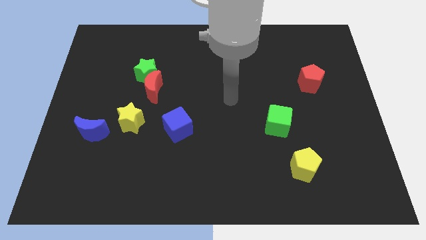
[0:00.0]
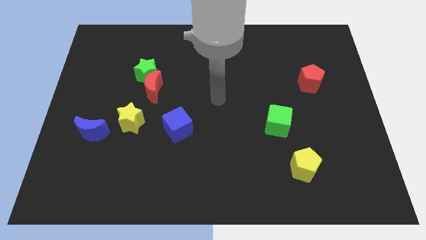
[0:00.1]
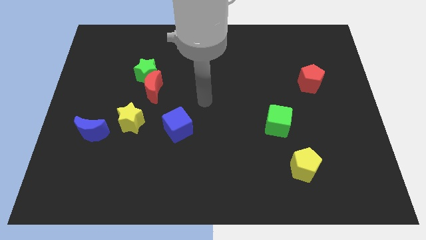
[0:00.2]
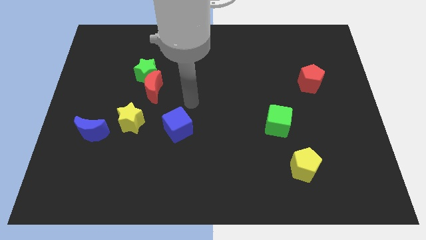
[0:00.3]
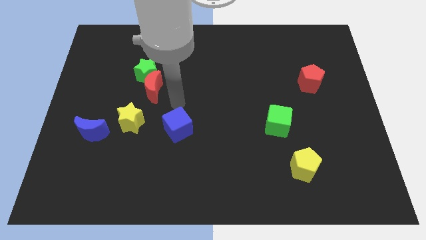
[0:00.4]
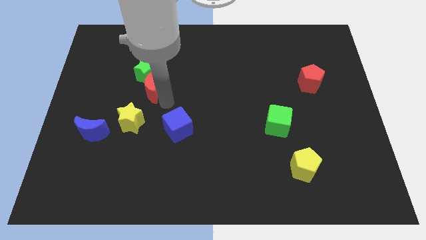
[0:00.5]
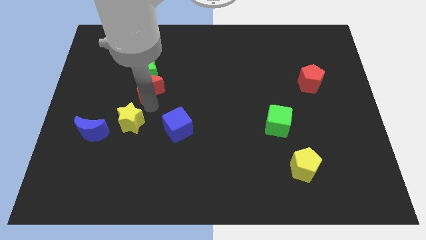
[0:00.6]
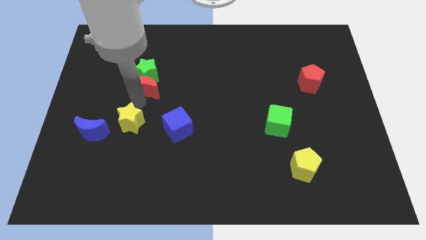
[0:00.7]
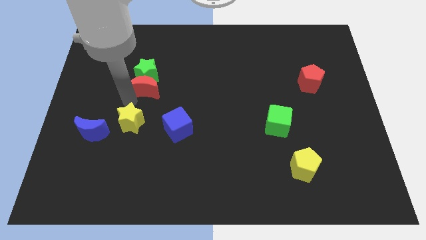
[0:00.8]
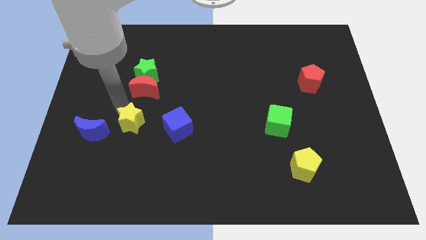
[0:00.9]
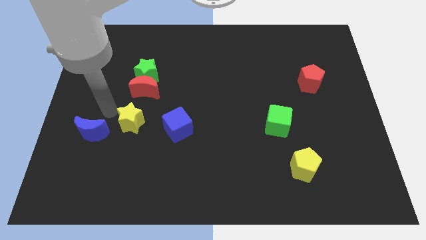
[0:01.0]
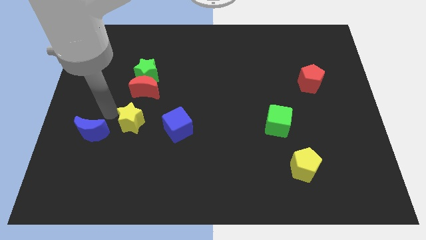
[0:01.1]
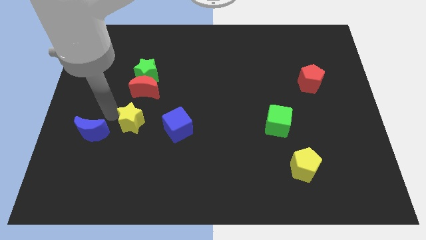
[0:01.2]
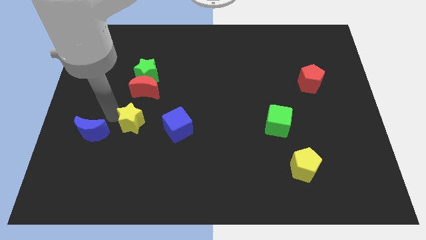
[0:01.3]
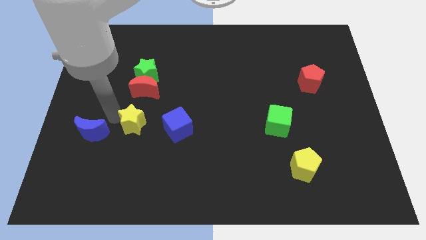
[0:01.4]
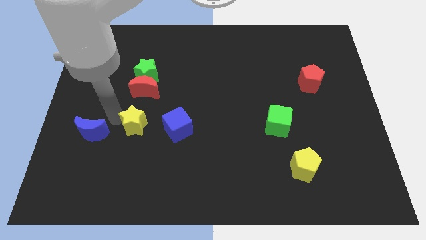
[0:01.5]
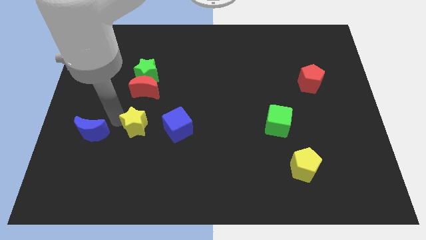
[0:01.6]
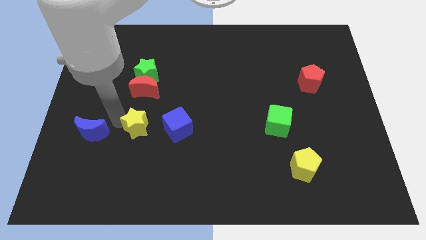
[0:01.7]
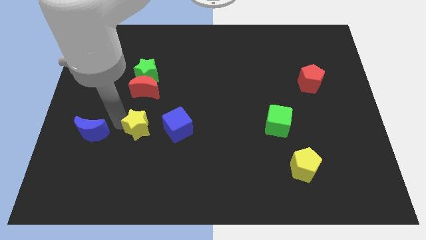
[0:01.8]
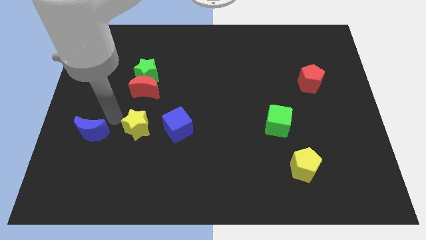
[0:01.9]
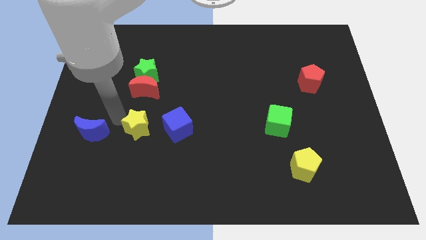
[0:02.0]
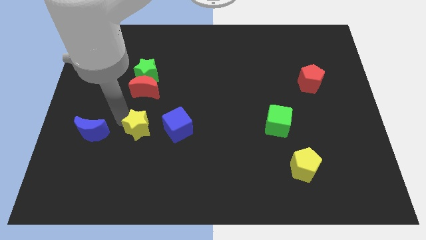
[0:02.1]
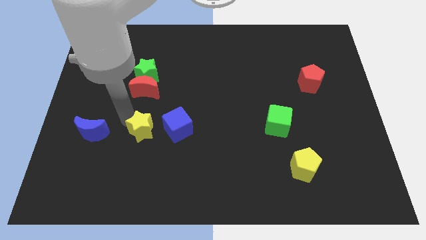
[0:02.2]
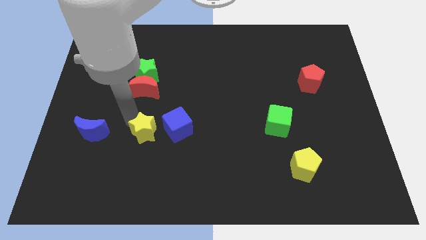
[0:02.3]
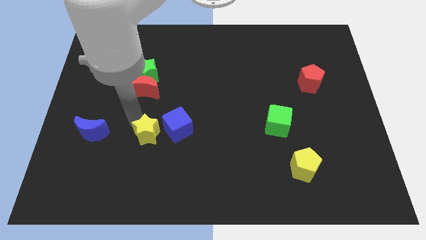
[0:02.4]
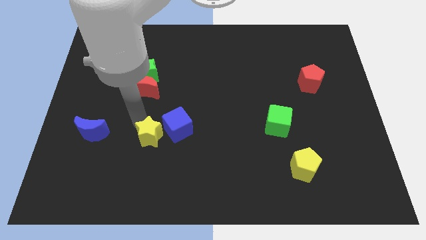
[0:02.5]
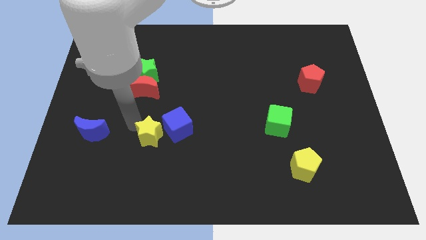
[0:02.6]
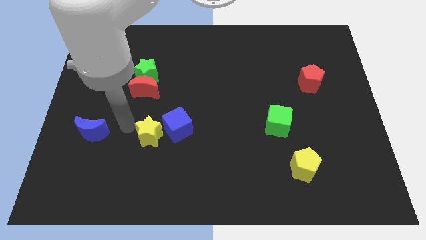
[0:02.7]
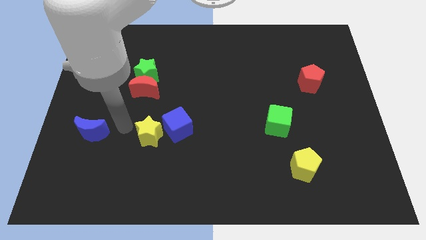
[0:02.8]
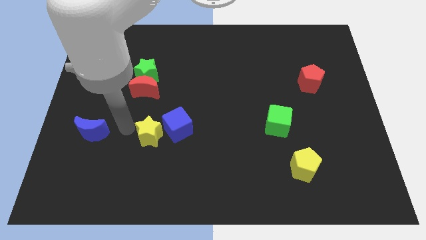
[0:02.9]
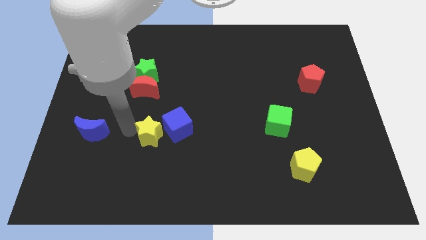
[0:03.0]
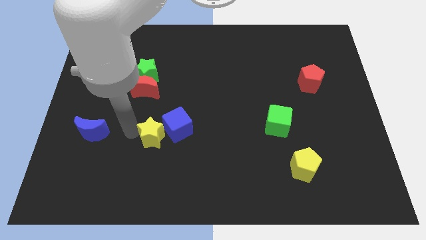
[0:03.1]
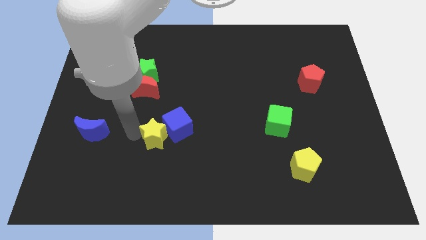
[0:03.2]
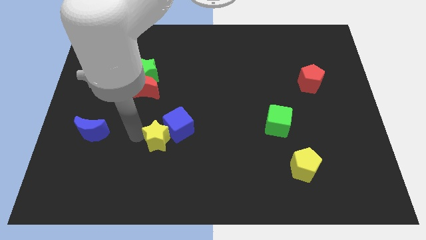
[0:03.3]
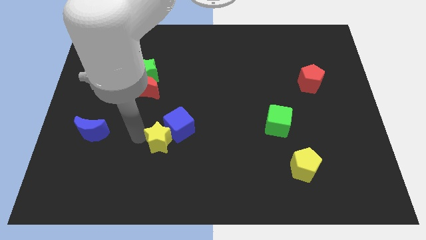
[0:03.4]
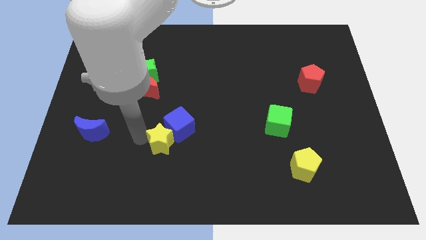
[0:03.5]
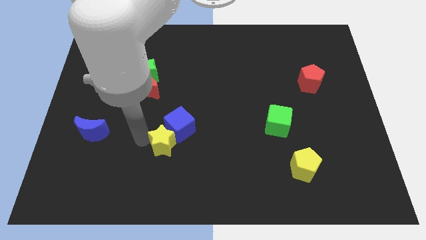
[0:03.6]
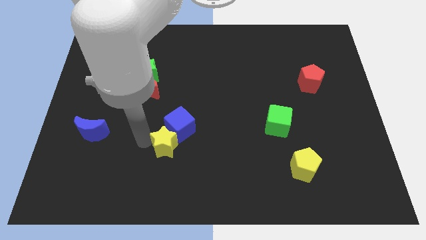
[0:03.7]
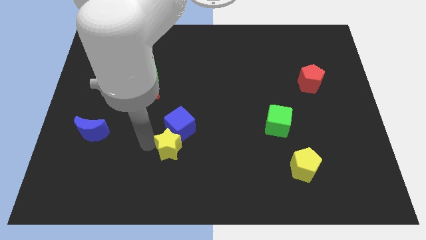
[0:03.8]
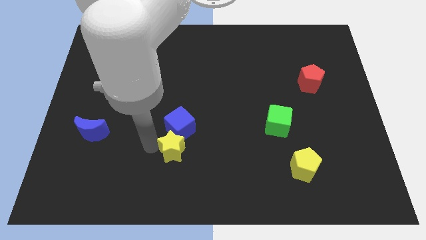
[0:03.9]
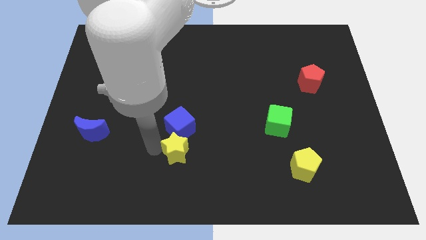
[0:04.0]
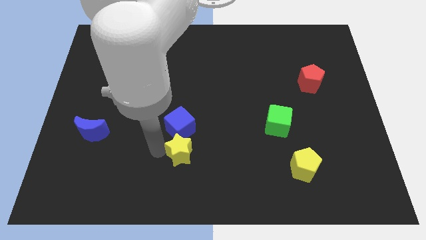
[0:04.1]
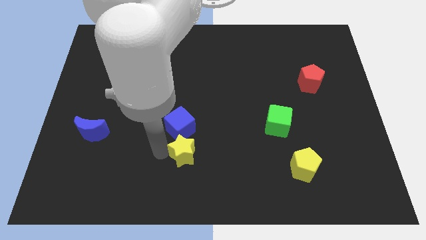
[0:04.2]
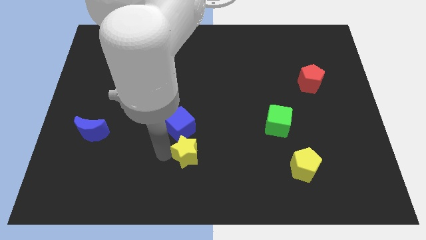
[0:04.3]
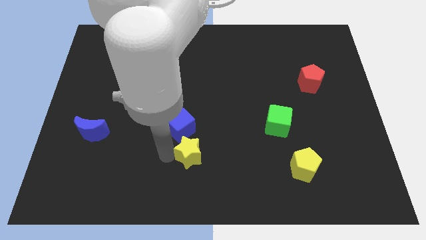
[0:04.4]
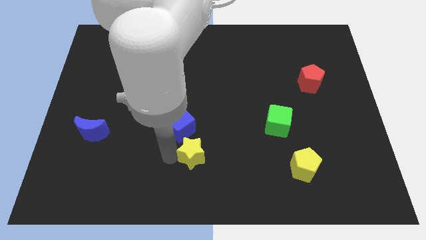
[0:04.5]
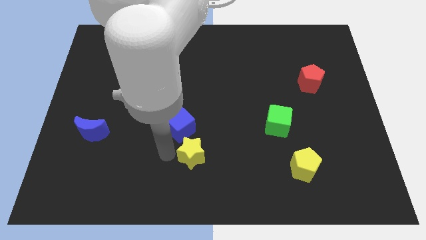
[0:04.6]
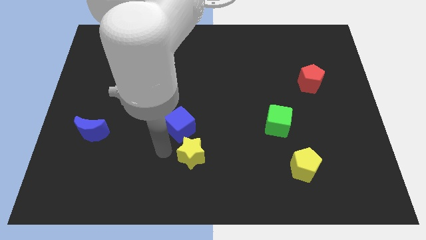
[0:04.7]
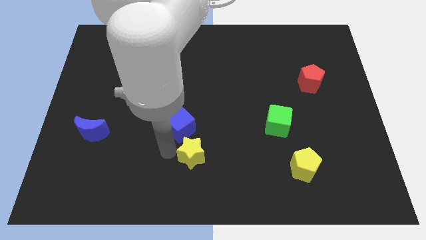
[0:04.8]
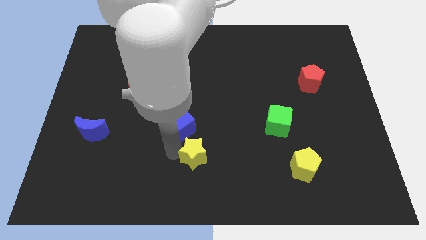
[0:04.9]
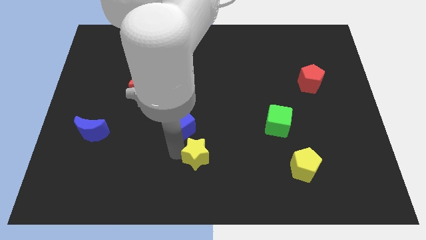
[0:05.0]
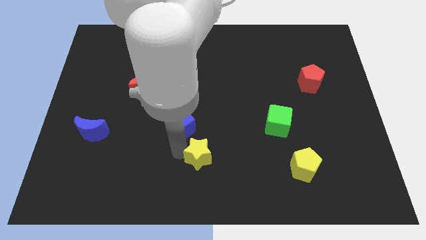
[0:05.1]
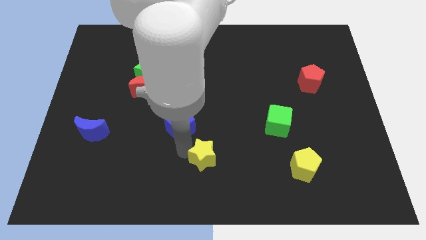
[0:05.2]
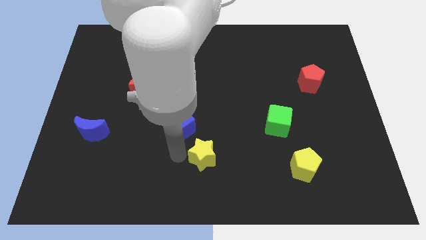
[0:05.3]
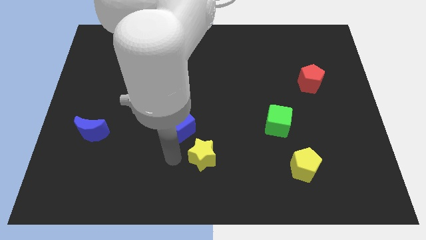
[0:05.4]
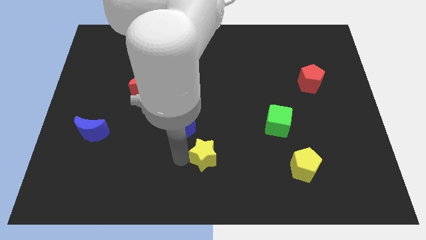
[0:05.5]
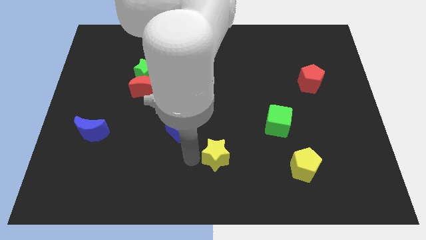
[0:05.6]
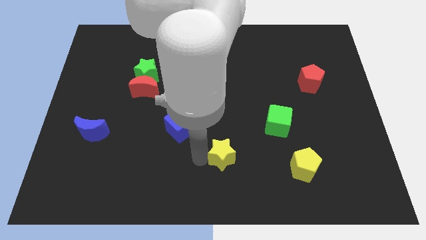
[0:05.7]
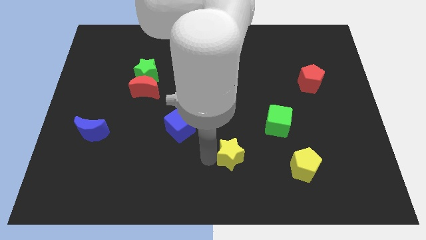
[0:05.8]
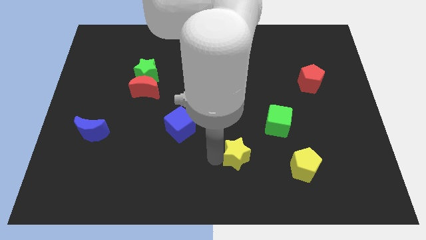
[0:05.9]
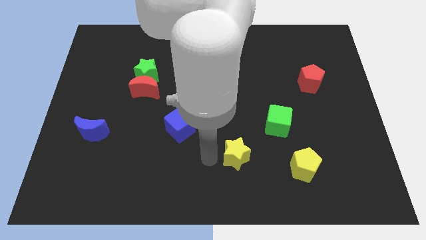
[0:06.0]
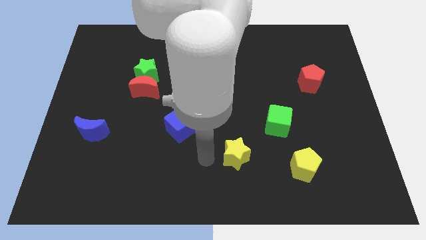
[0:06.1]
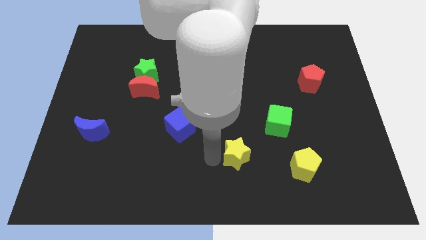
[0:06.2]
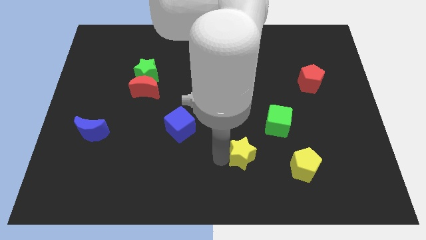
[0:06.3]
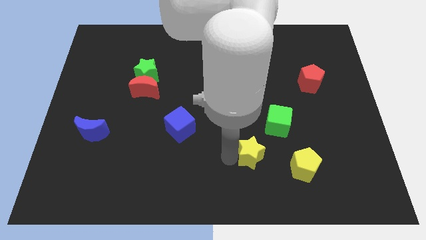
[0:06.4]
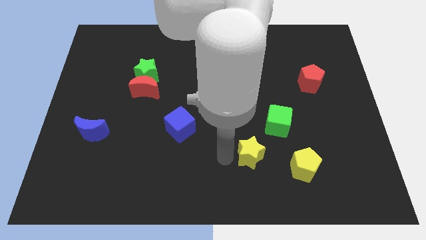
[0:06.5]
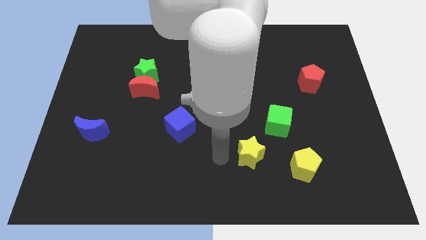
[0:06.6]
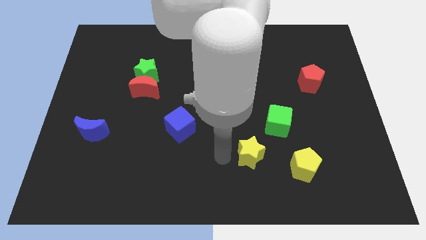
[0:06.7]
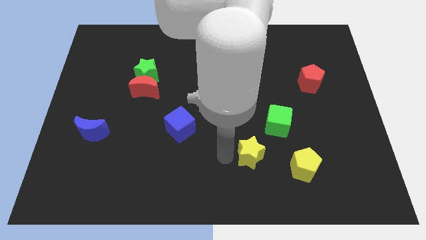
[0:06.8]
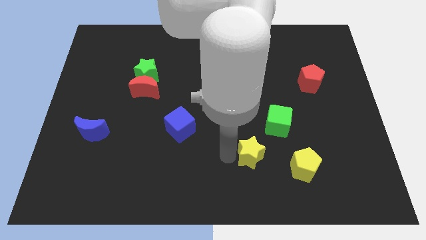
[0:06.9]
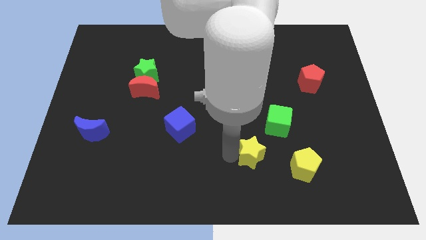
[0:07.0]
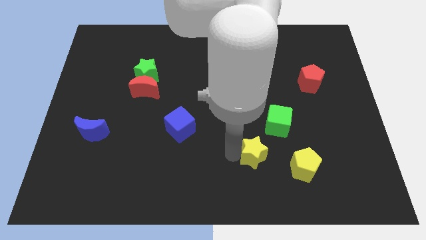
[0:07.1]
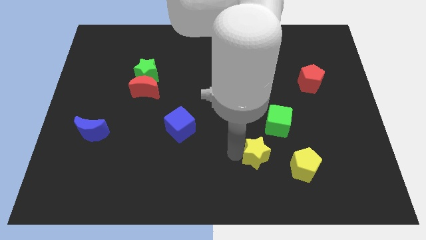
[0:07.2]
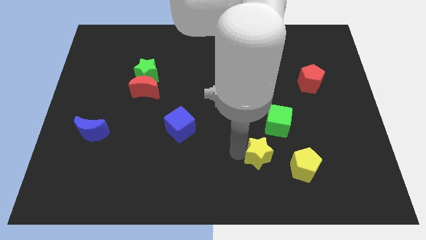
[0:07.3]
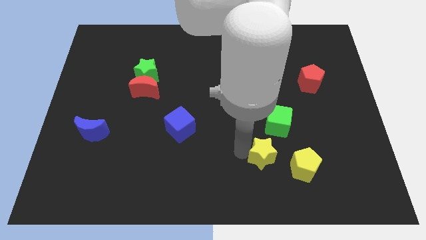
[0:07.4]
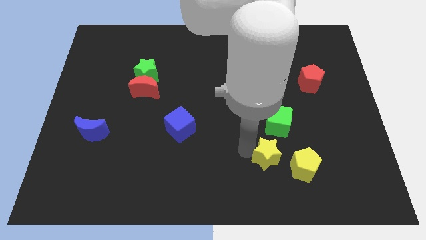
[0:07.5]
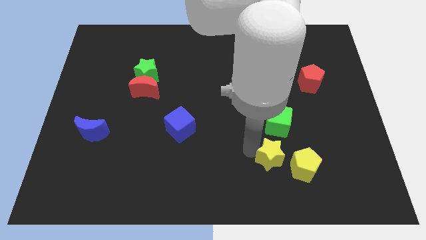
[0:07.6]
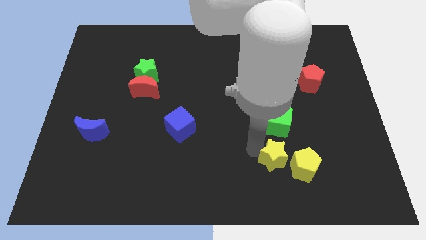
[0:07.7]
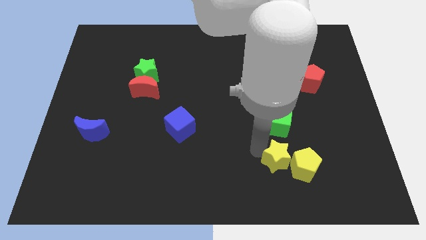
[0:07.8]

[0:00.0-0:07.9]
slide the yellow star towards the yellow pentagon
